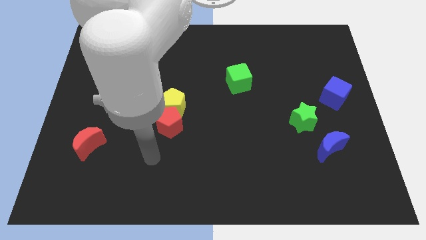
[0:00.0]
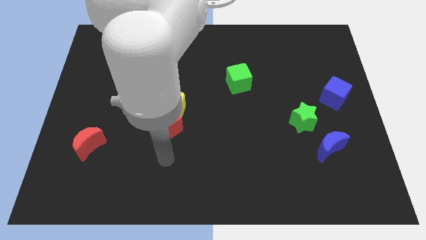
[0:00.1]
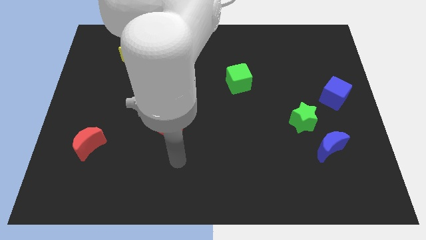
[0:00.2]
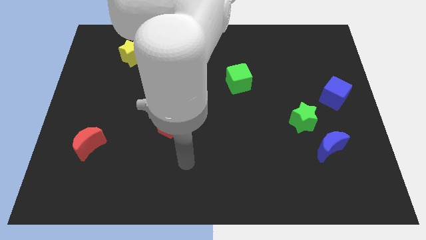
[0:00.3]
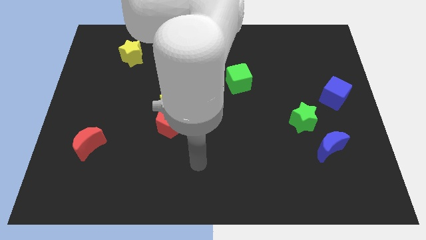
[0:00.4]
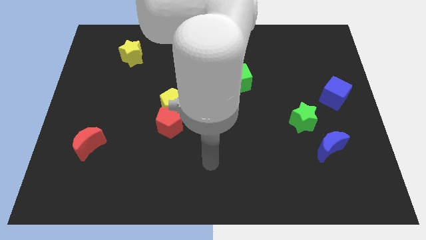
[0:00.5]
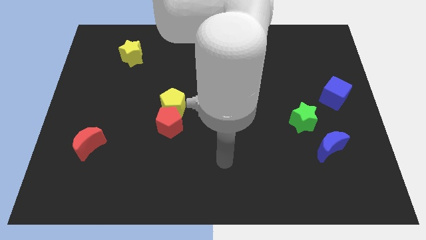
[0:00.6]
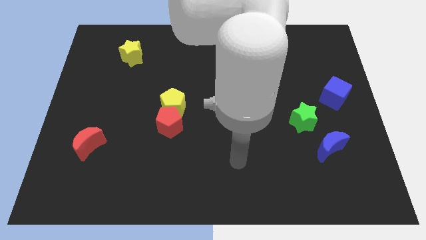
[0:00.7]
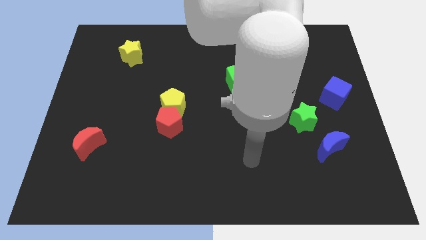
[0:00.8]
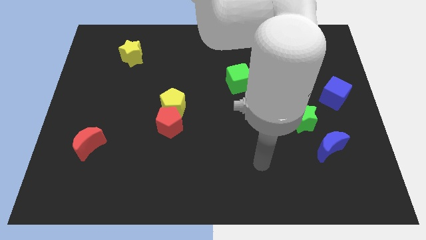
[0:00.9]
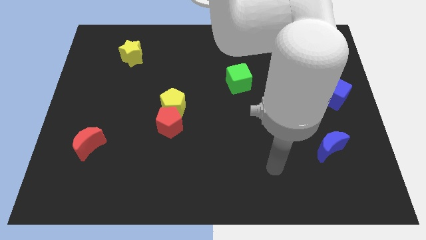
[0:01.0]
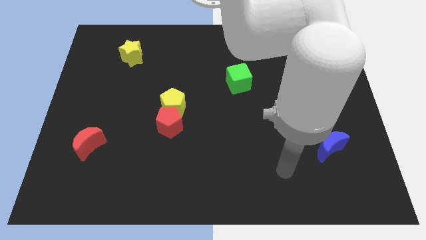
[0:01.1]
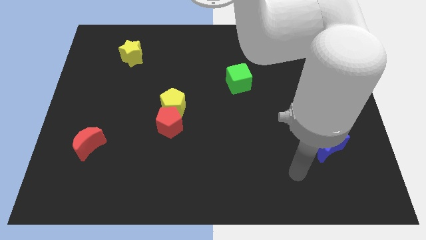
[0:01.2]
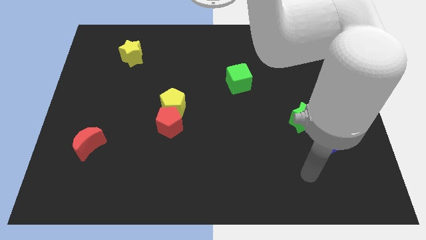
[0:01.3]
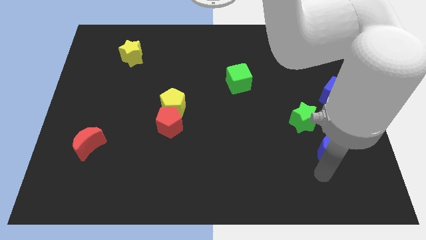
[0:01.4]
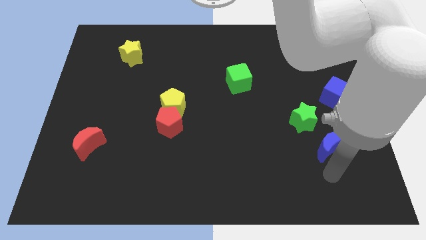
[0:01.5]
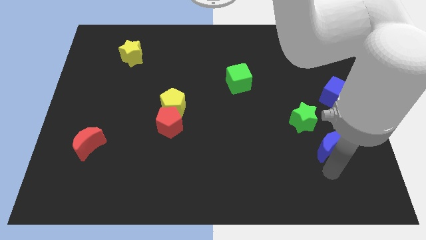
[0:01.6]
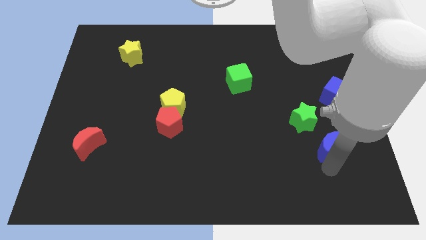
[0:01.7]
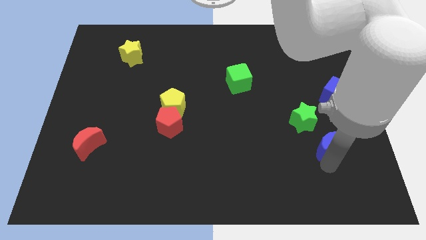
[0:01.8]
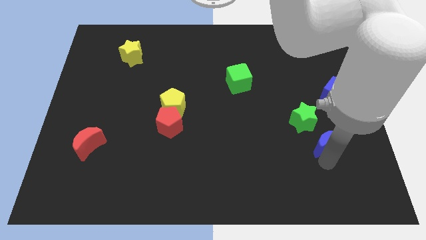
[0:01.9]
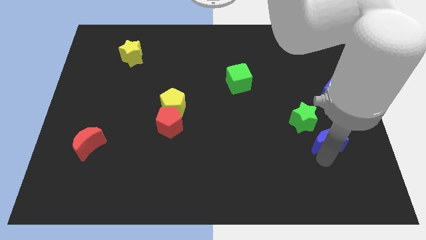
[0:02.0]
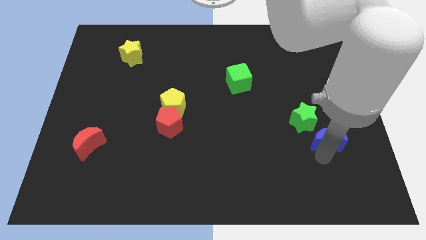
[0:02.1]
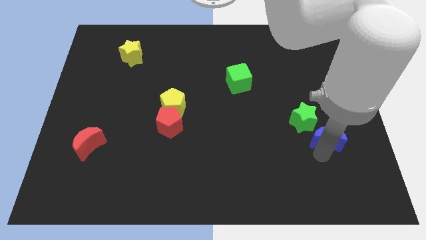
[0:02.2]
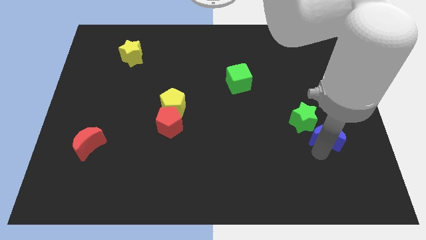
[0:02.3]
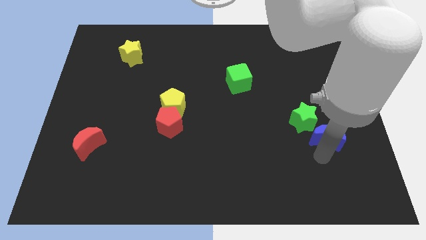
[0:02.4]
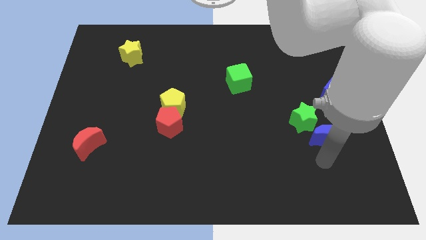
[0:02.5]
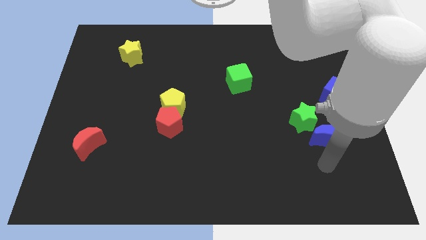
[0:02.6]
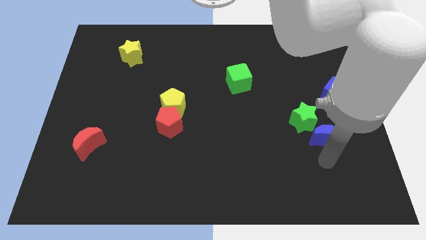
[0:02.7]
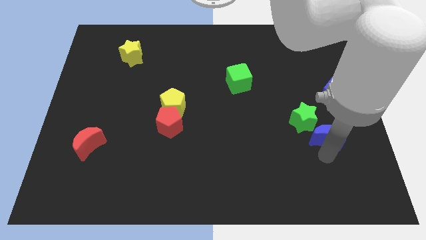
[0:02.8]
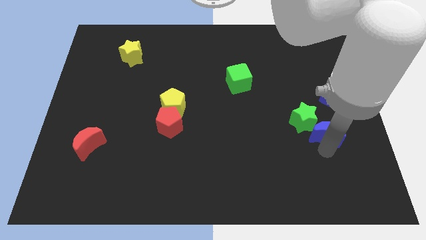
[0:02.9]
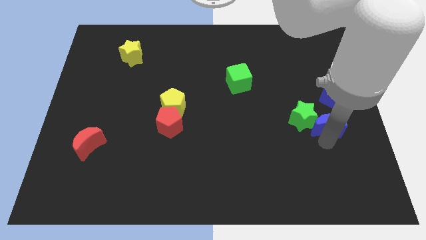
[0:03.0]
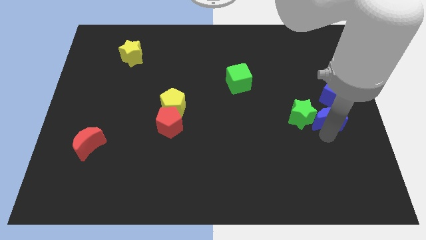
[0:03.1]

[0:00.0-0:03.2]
slide the blue moon a little upwards

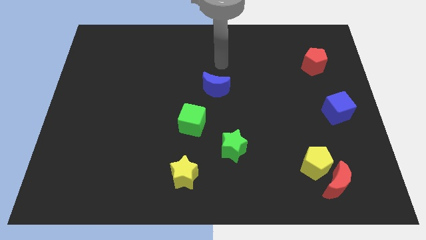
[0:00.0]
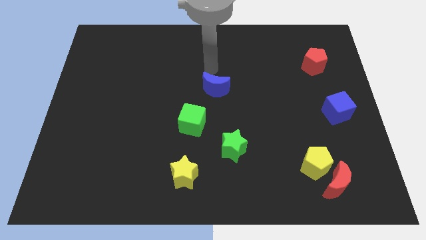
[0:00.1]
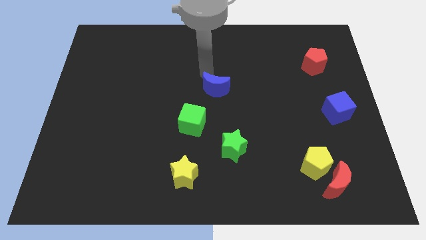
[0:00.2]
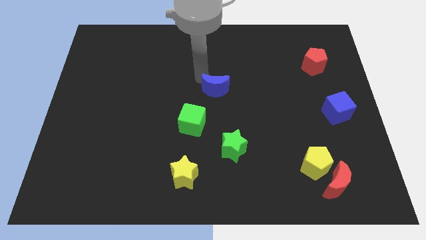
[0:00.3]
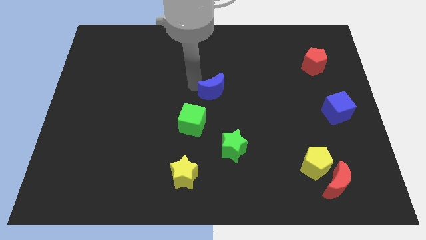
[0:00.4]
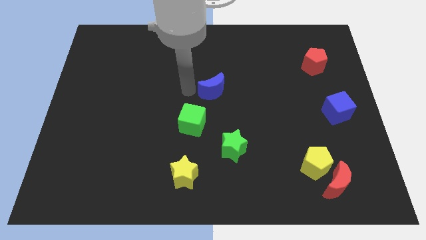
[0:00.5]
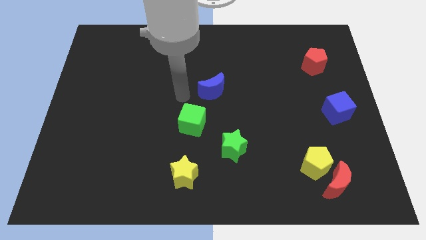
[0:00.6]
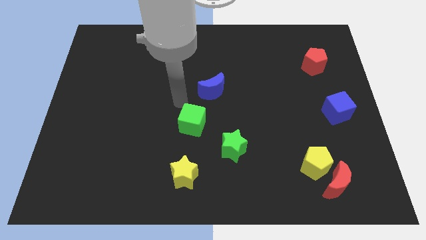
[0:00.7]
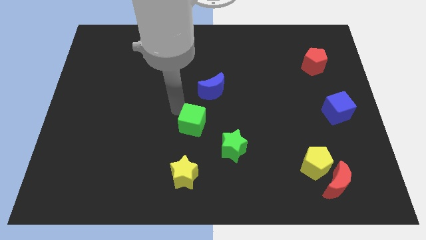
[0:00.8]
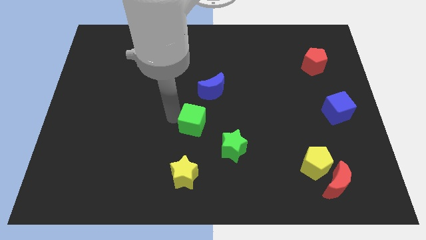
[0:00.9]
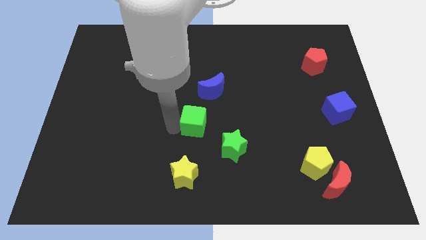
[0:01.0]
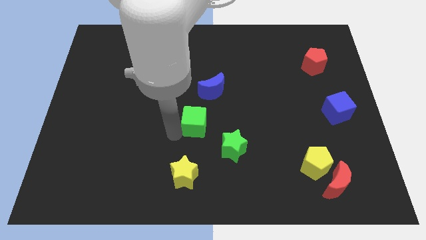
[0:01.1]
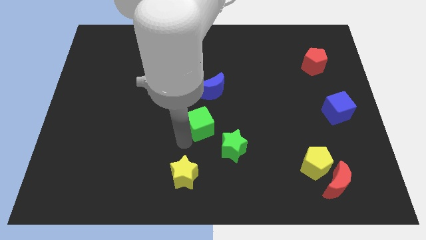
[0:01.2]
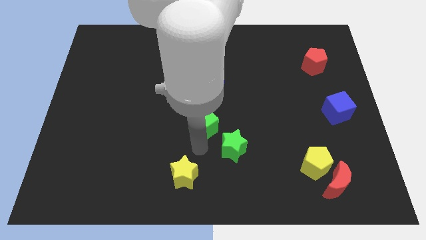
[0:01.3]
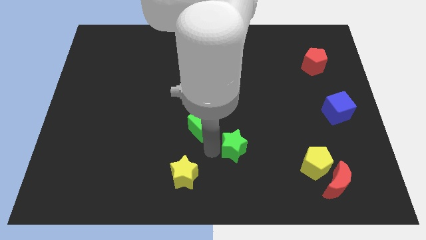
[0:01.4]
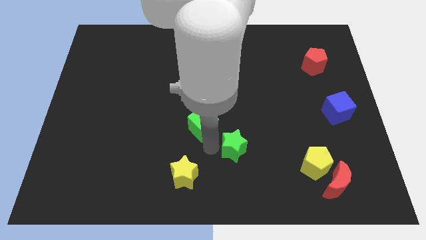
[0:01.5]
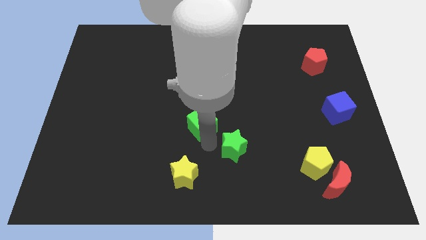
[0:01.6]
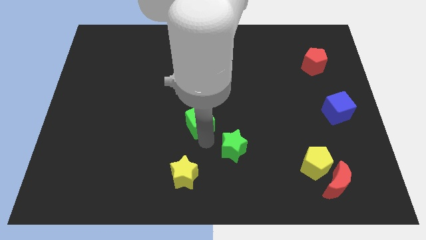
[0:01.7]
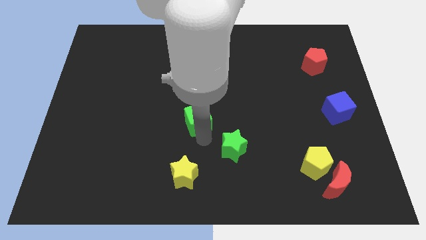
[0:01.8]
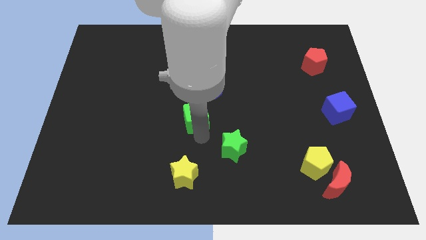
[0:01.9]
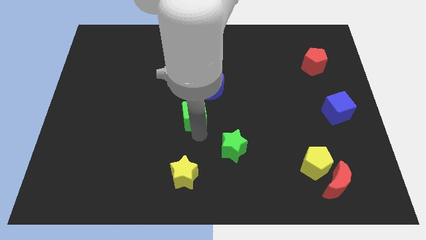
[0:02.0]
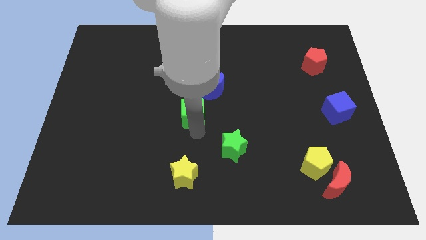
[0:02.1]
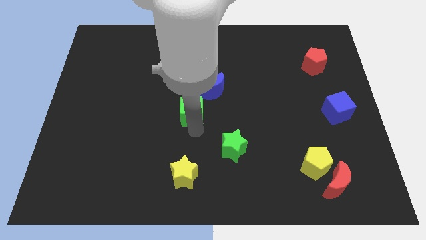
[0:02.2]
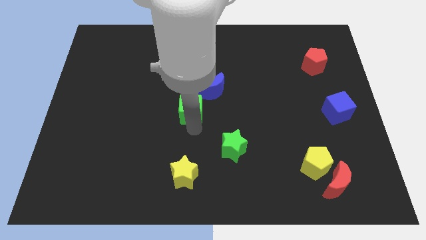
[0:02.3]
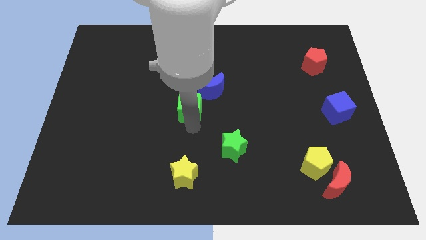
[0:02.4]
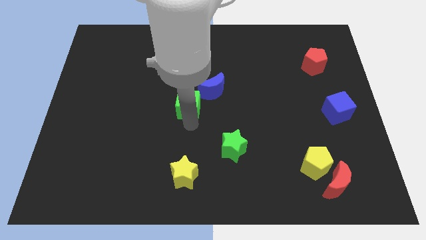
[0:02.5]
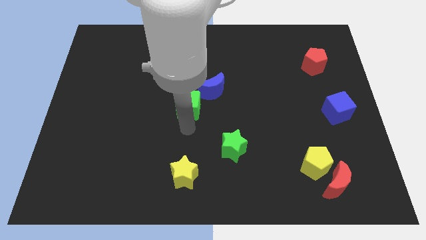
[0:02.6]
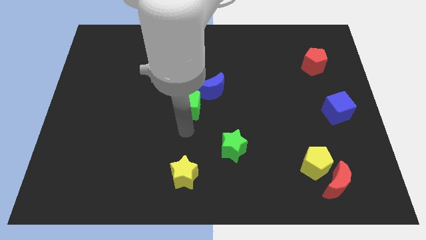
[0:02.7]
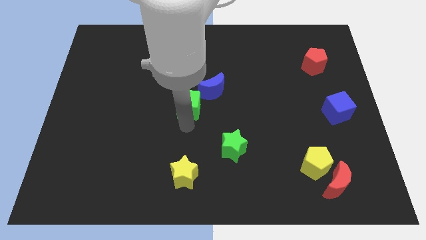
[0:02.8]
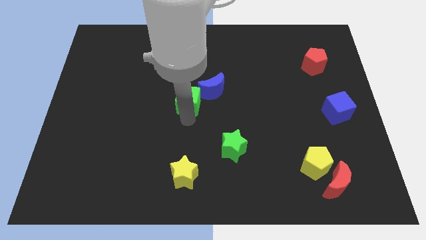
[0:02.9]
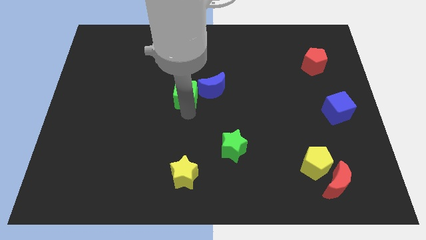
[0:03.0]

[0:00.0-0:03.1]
slightly slide the green cube up

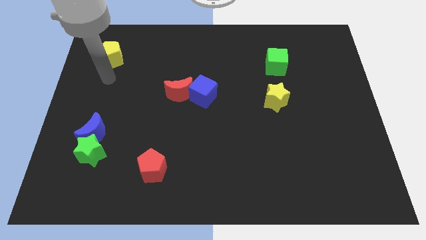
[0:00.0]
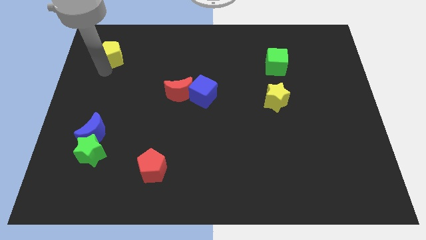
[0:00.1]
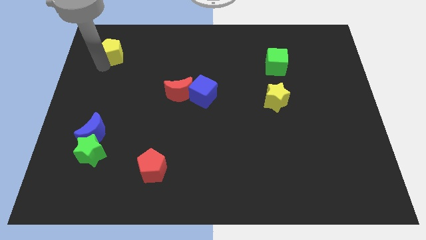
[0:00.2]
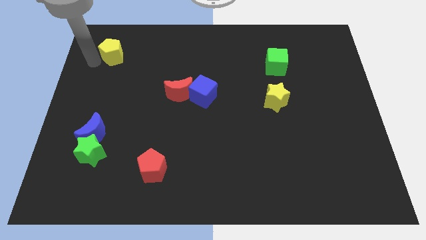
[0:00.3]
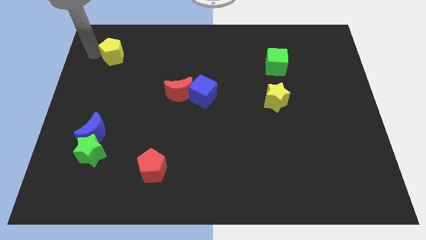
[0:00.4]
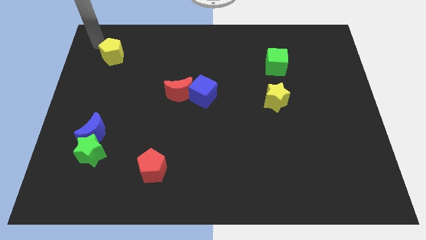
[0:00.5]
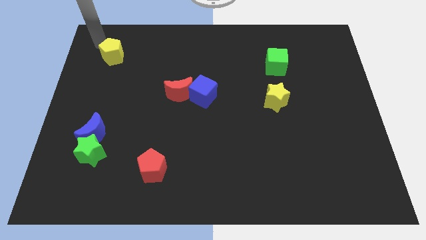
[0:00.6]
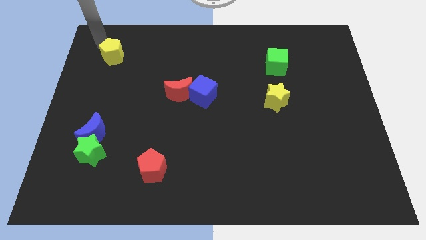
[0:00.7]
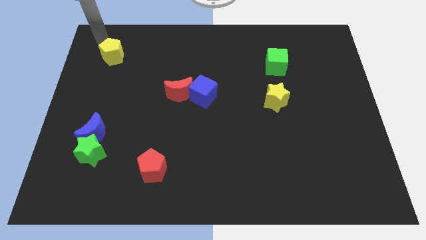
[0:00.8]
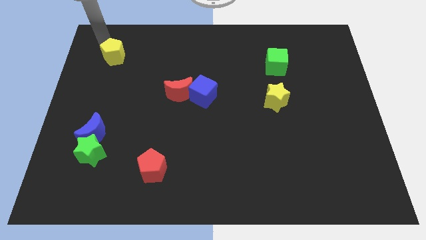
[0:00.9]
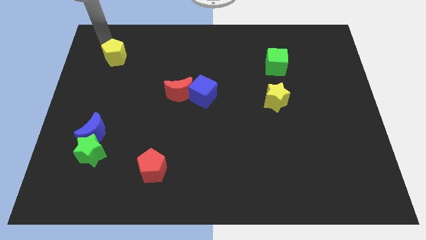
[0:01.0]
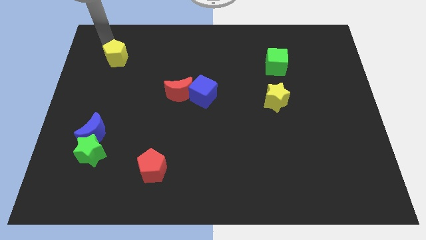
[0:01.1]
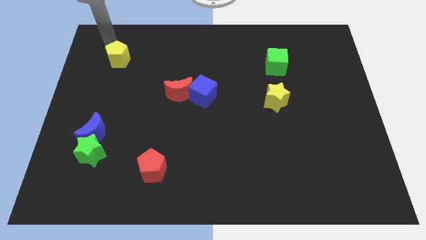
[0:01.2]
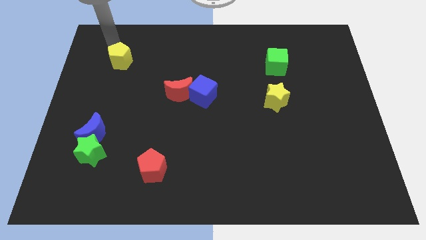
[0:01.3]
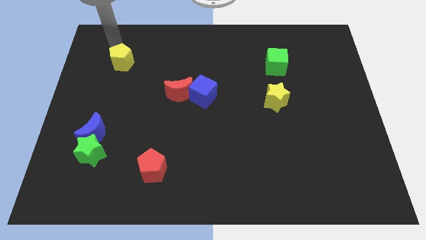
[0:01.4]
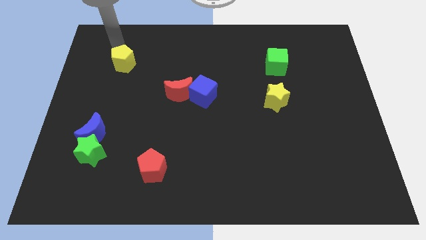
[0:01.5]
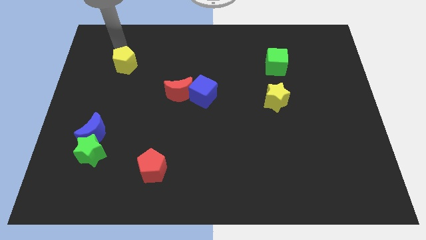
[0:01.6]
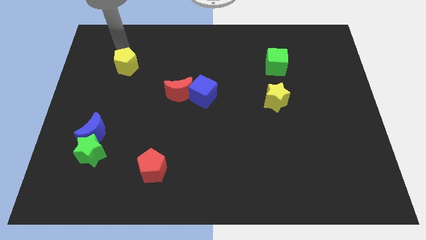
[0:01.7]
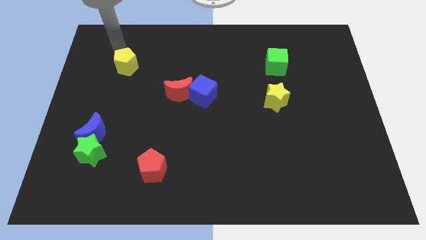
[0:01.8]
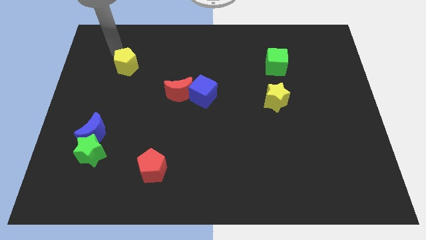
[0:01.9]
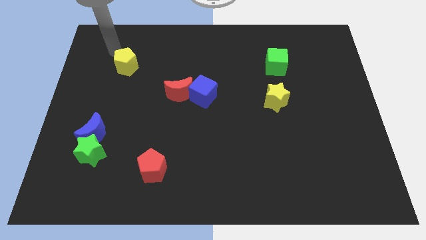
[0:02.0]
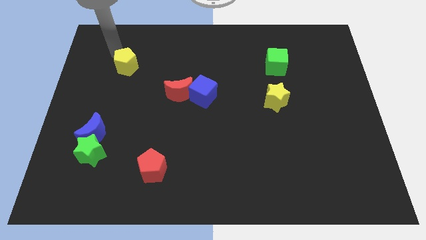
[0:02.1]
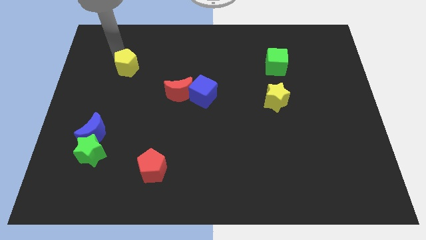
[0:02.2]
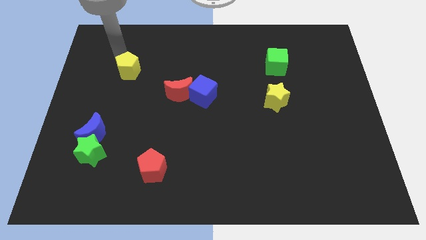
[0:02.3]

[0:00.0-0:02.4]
push the yellow pentagon slightly diagonally downwards and right
